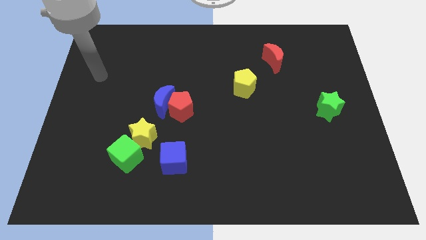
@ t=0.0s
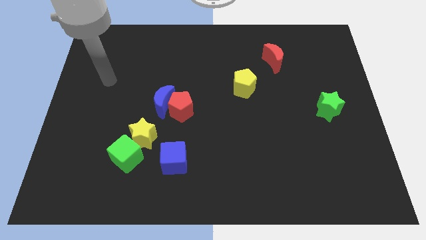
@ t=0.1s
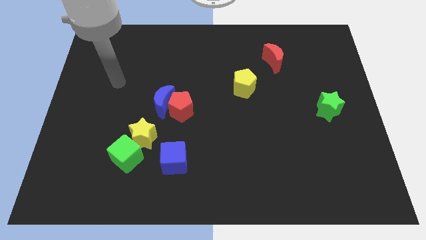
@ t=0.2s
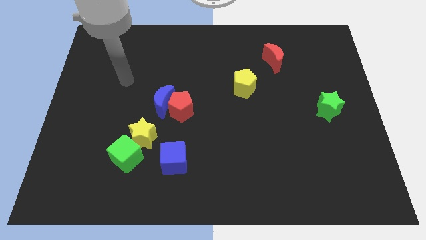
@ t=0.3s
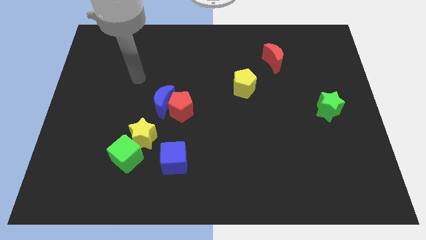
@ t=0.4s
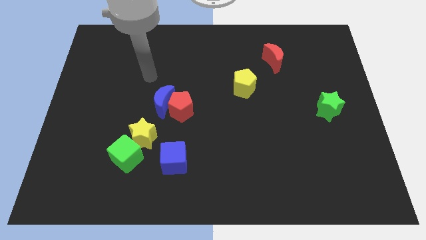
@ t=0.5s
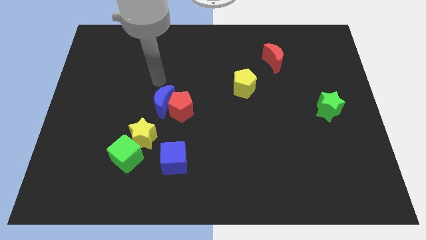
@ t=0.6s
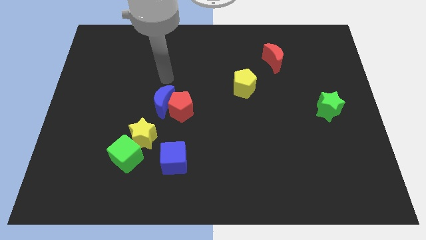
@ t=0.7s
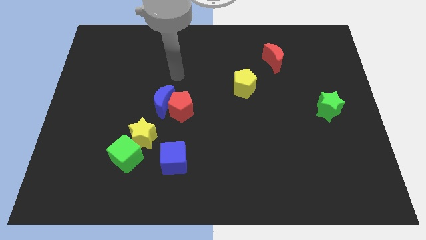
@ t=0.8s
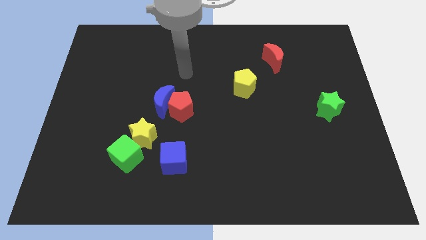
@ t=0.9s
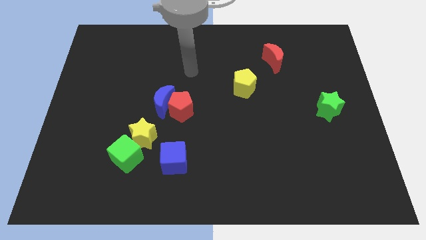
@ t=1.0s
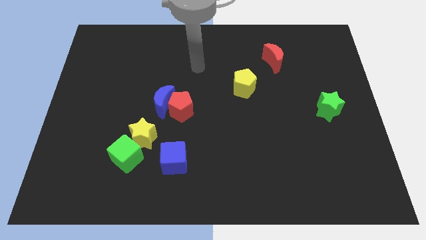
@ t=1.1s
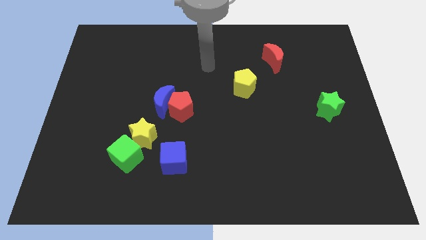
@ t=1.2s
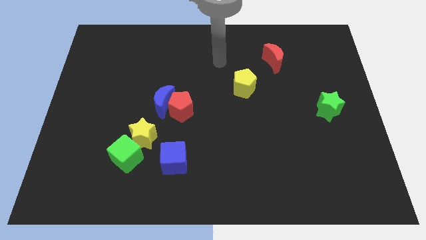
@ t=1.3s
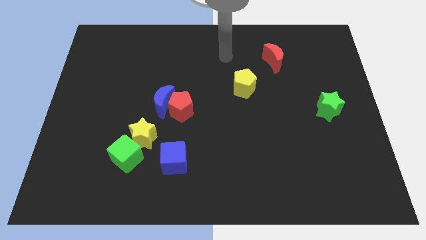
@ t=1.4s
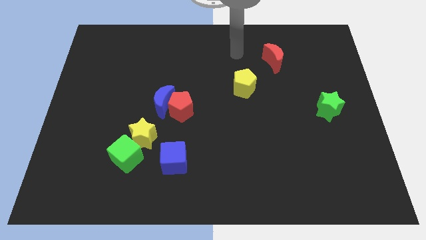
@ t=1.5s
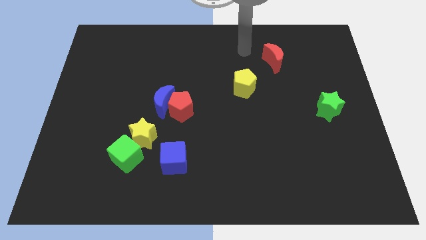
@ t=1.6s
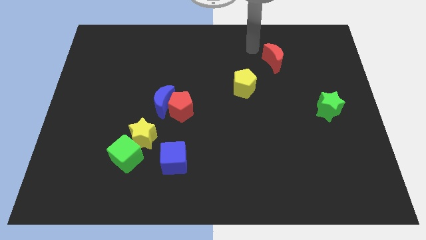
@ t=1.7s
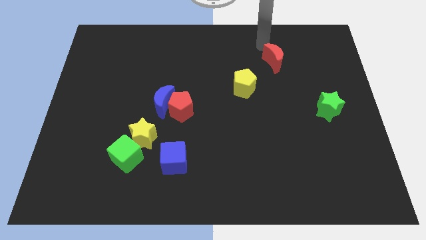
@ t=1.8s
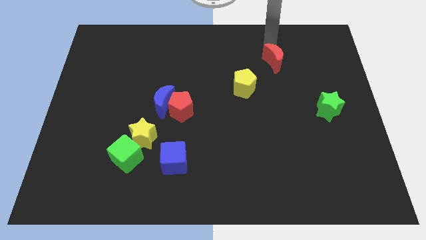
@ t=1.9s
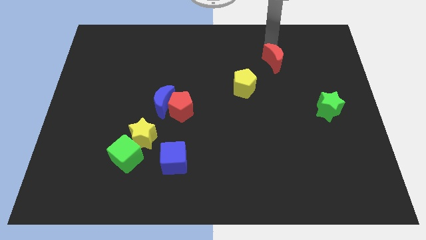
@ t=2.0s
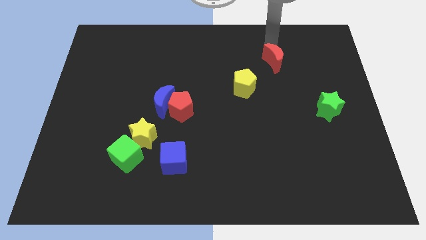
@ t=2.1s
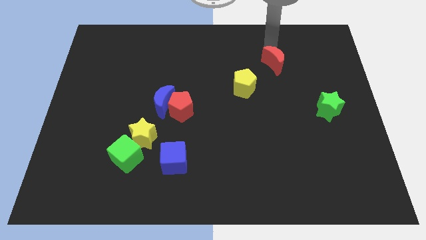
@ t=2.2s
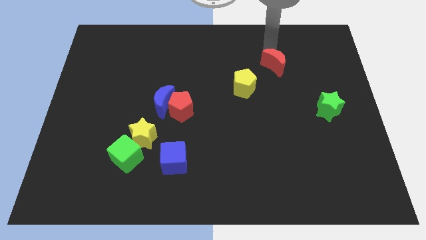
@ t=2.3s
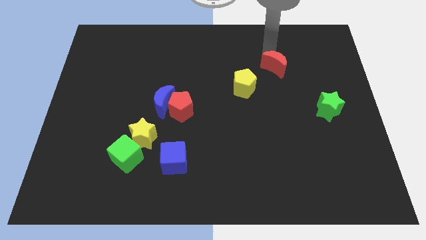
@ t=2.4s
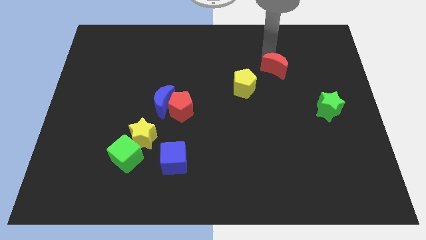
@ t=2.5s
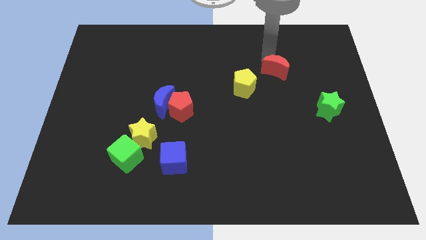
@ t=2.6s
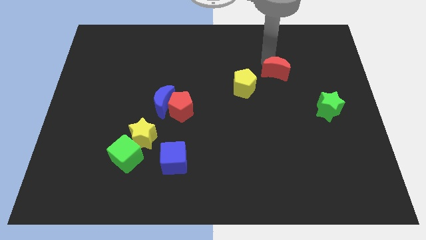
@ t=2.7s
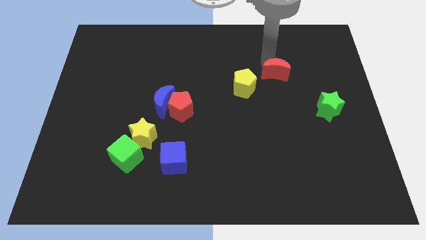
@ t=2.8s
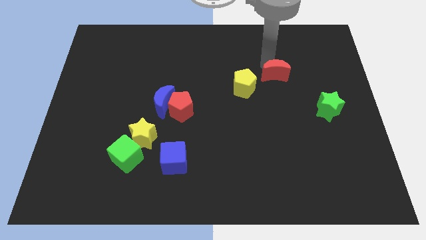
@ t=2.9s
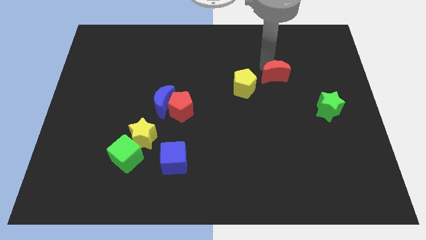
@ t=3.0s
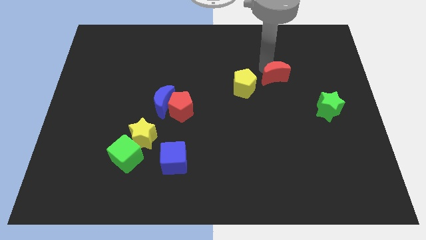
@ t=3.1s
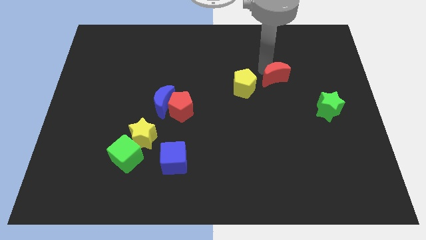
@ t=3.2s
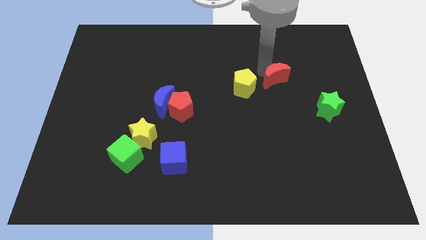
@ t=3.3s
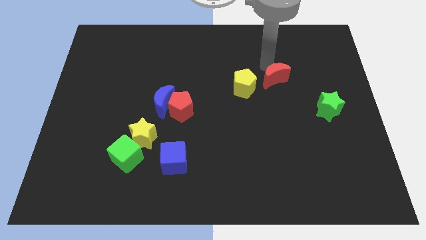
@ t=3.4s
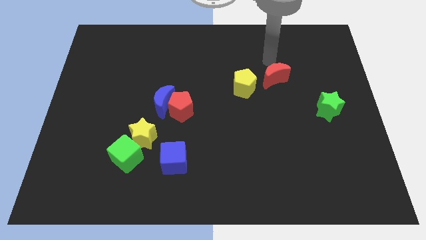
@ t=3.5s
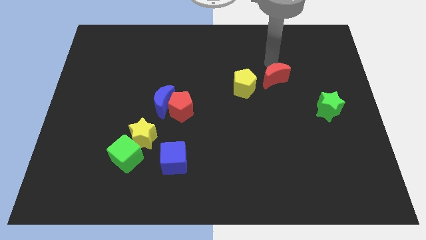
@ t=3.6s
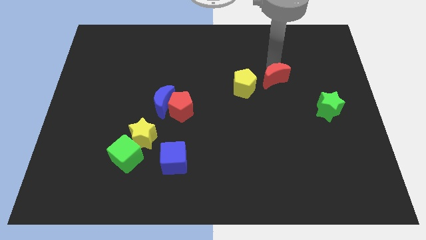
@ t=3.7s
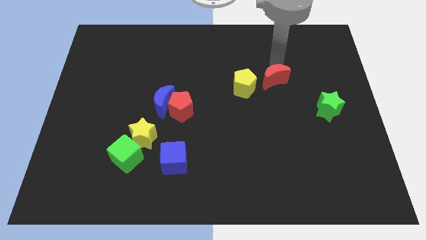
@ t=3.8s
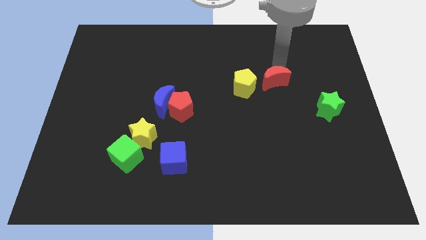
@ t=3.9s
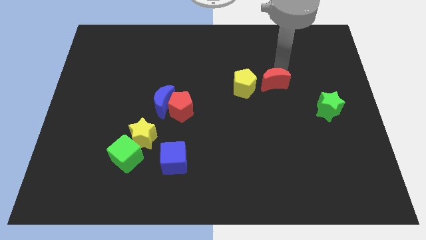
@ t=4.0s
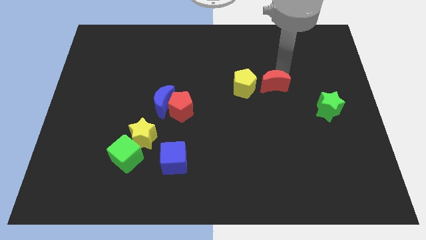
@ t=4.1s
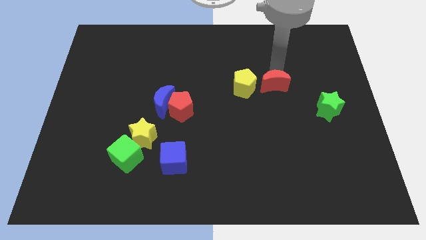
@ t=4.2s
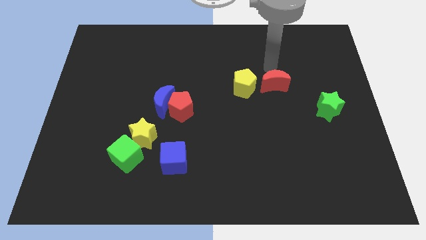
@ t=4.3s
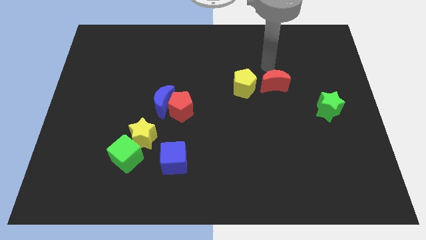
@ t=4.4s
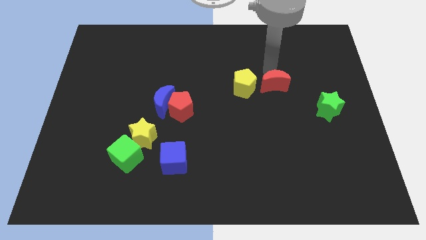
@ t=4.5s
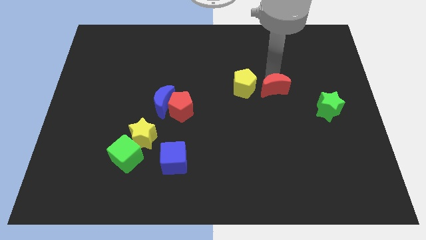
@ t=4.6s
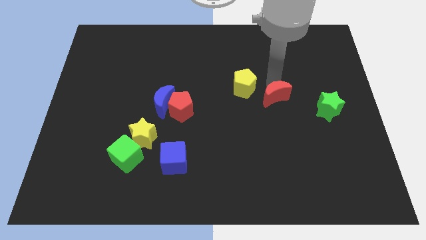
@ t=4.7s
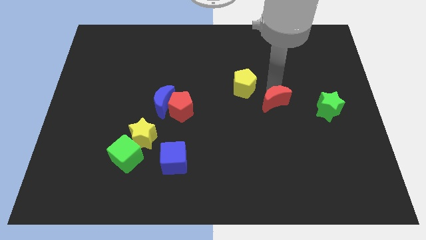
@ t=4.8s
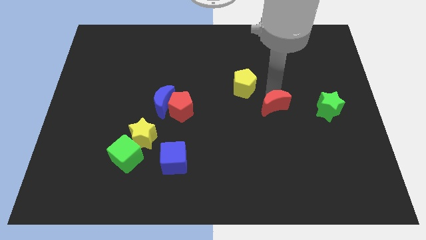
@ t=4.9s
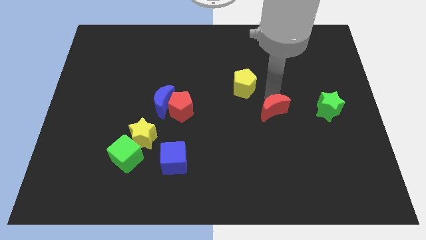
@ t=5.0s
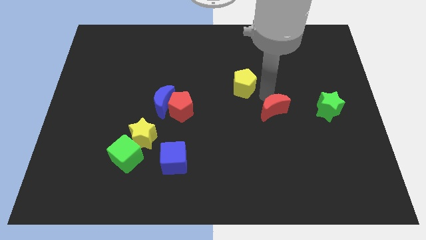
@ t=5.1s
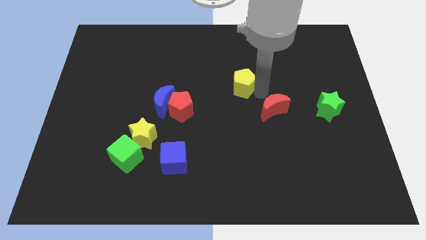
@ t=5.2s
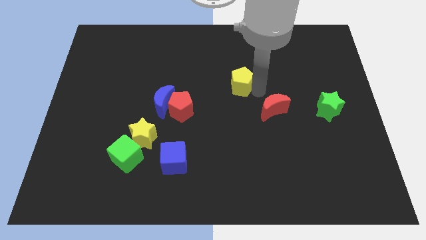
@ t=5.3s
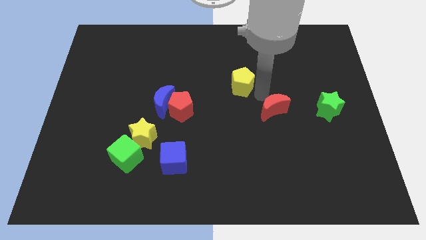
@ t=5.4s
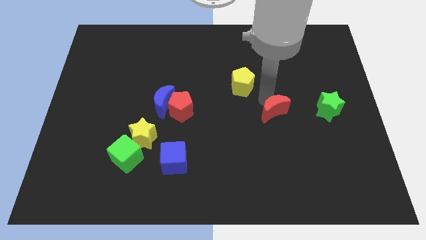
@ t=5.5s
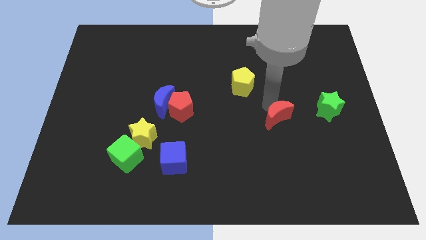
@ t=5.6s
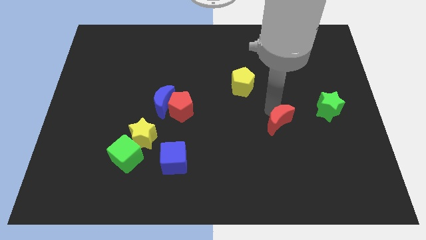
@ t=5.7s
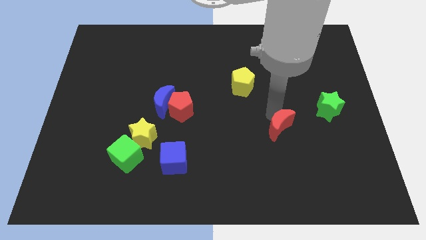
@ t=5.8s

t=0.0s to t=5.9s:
push the red moon down

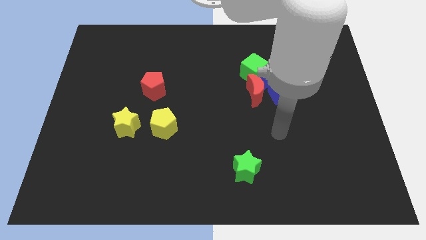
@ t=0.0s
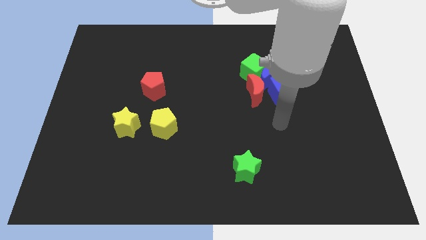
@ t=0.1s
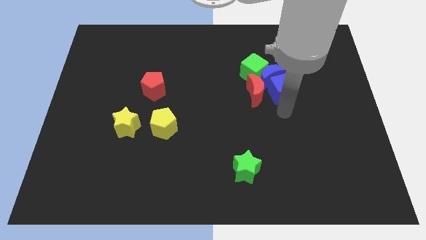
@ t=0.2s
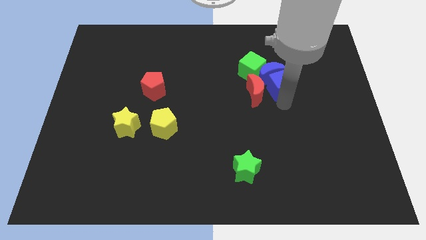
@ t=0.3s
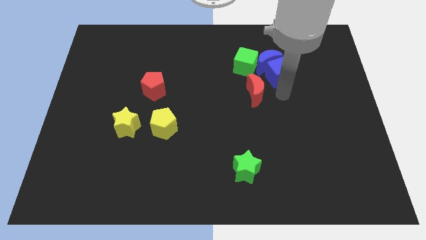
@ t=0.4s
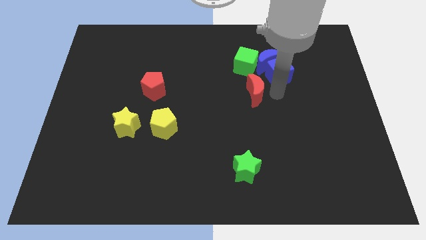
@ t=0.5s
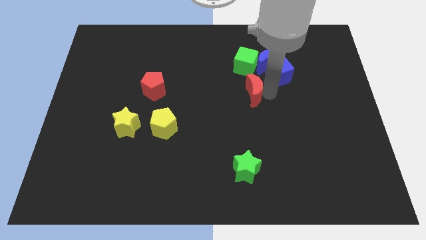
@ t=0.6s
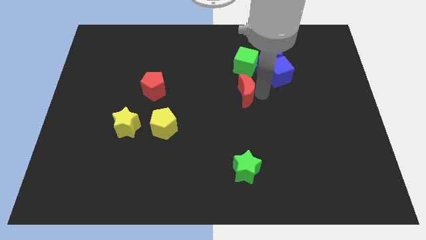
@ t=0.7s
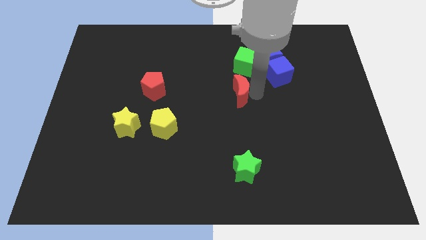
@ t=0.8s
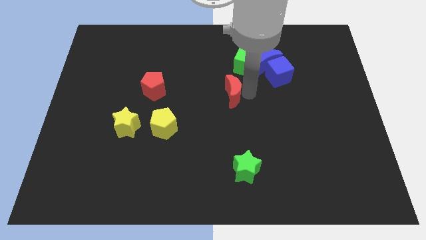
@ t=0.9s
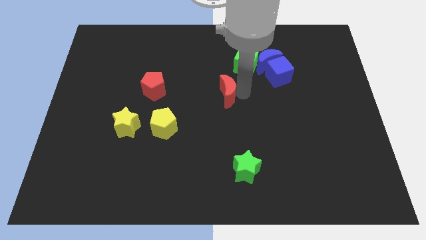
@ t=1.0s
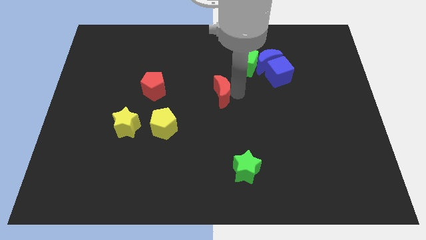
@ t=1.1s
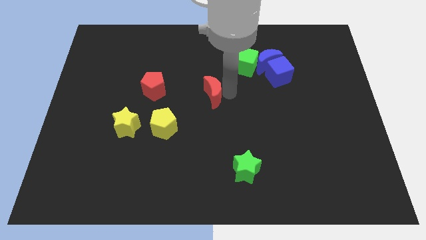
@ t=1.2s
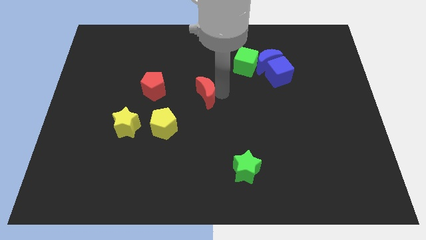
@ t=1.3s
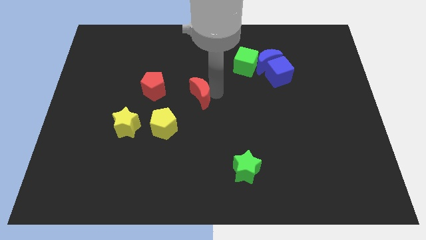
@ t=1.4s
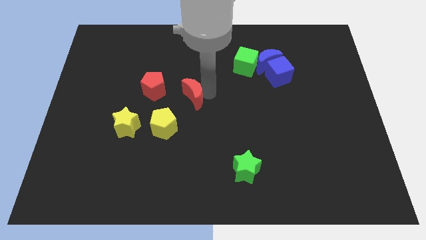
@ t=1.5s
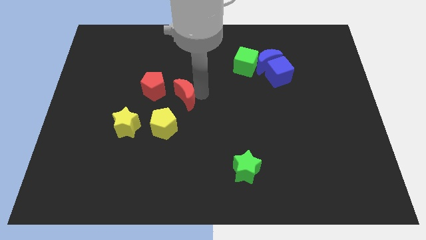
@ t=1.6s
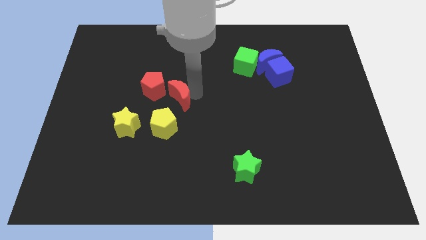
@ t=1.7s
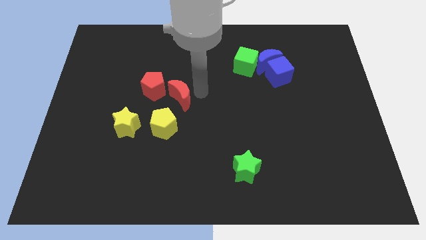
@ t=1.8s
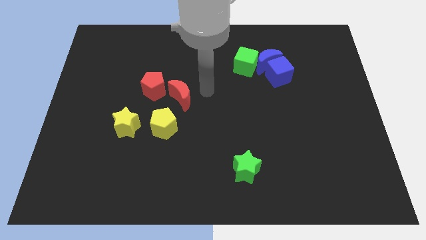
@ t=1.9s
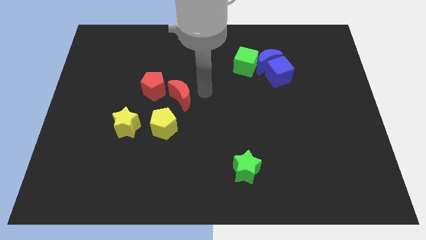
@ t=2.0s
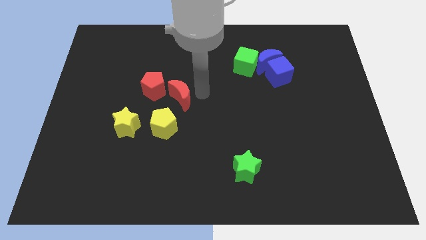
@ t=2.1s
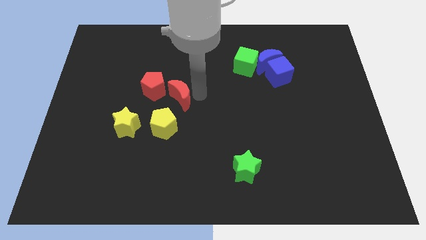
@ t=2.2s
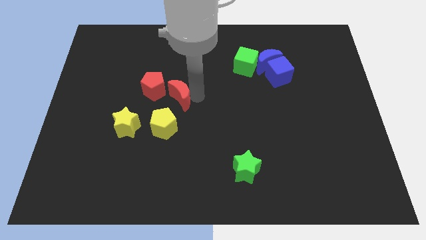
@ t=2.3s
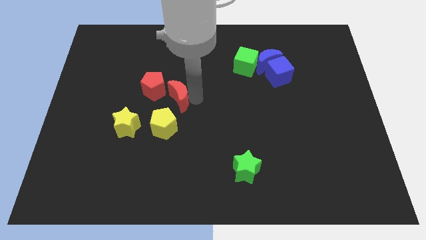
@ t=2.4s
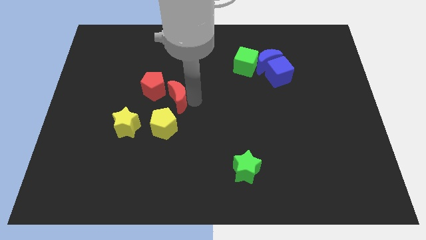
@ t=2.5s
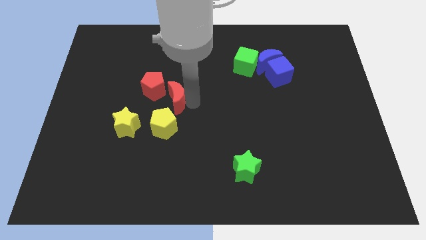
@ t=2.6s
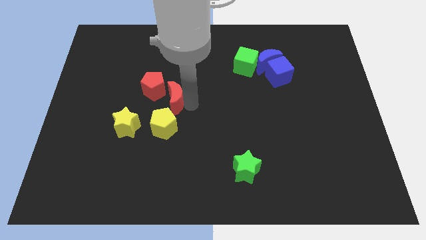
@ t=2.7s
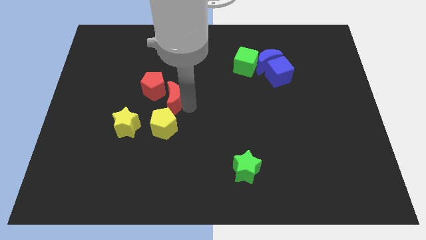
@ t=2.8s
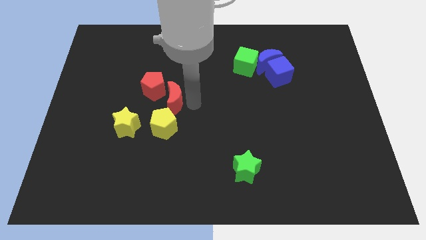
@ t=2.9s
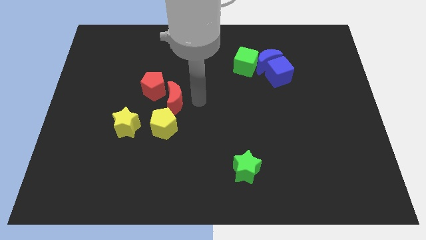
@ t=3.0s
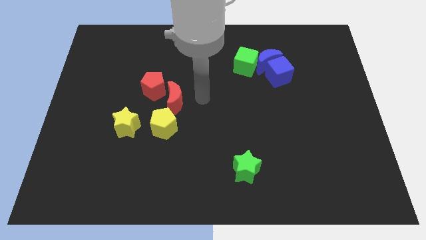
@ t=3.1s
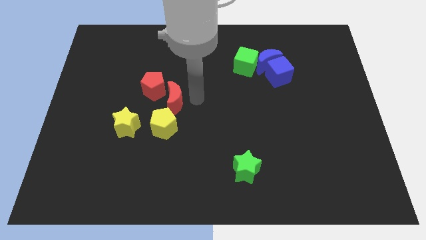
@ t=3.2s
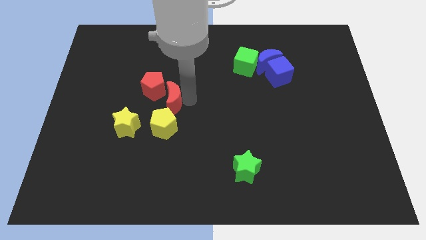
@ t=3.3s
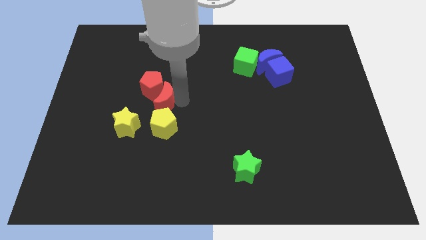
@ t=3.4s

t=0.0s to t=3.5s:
push the red moon left
